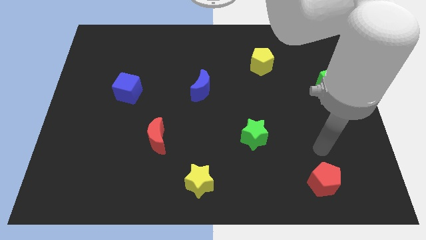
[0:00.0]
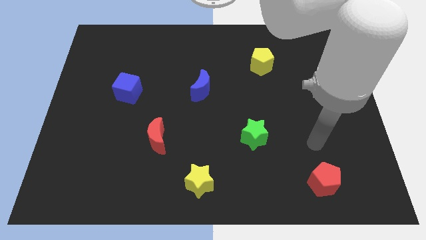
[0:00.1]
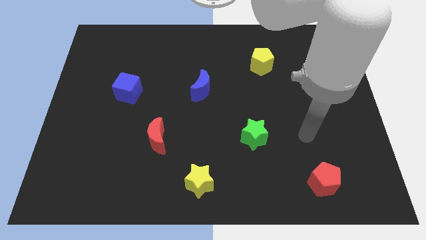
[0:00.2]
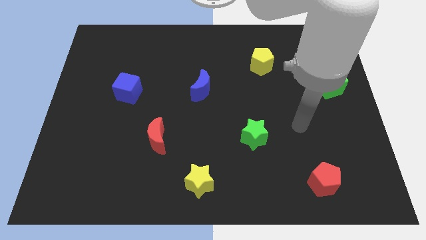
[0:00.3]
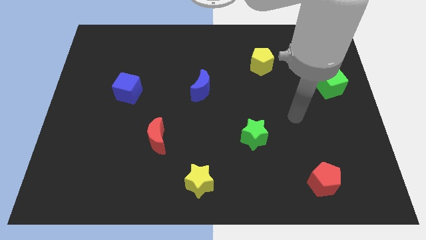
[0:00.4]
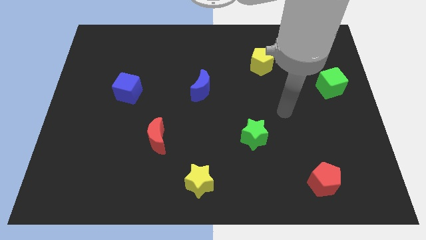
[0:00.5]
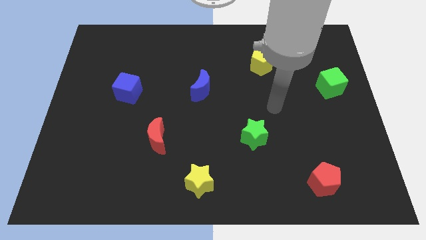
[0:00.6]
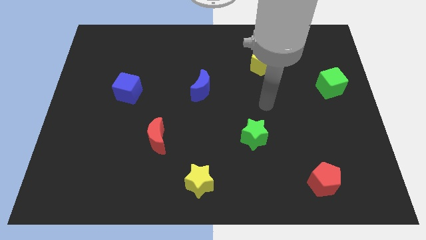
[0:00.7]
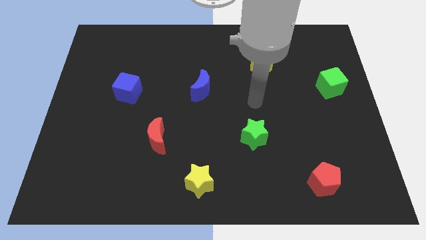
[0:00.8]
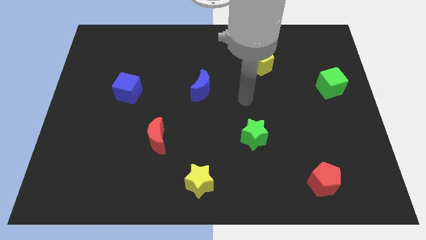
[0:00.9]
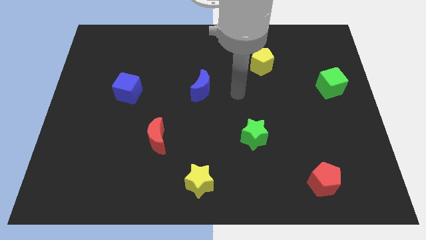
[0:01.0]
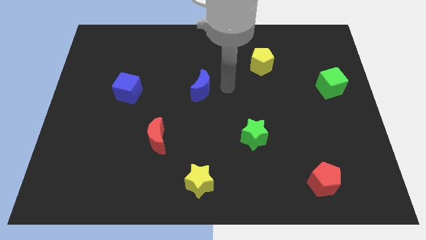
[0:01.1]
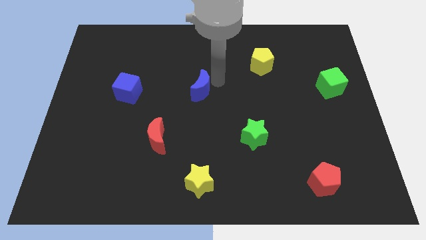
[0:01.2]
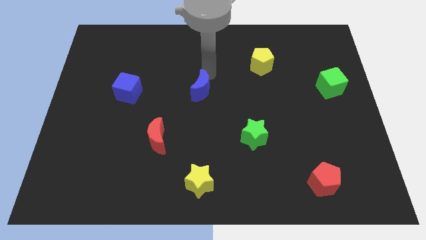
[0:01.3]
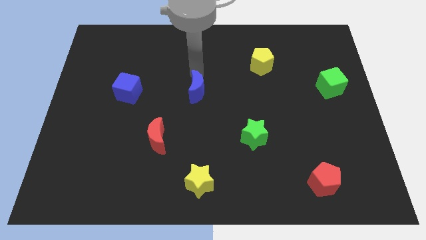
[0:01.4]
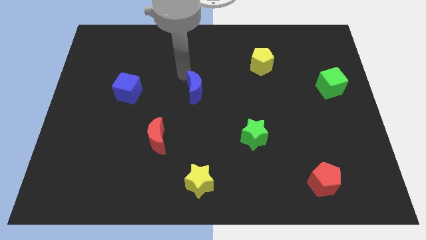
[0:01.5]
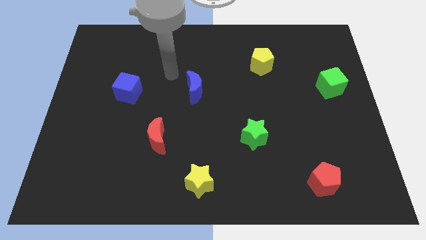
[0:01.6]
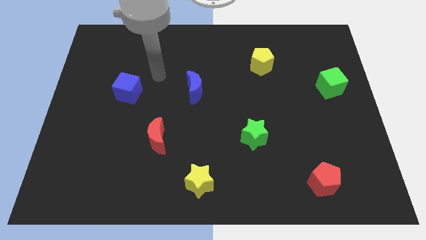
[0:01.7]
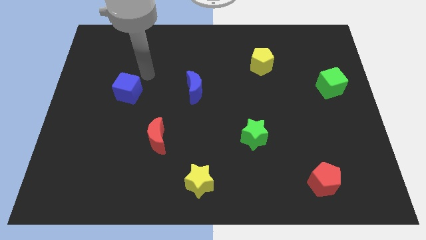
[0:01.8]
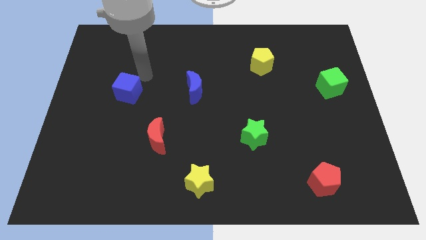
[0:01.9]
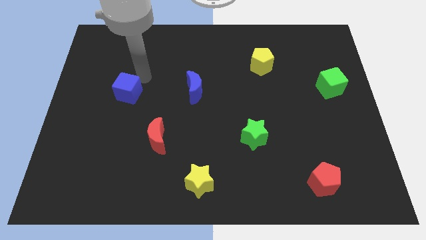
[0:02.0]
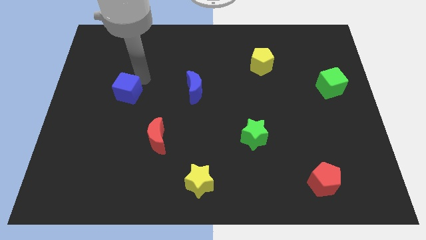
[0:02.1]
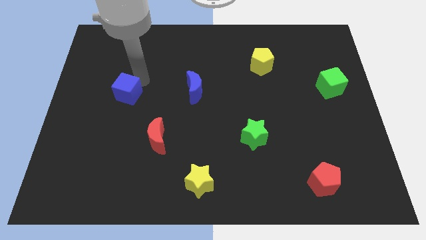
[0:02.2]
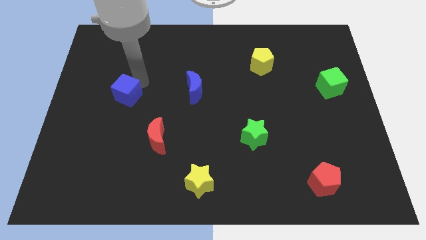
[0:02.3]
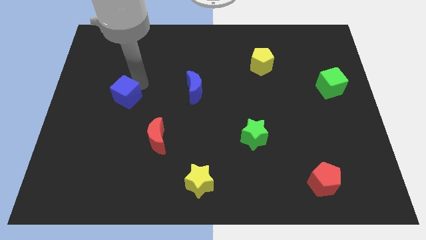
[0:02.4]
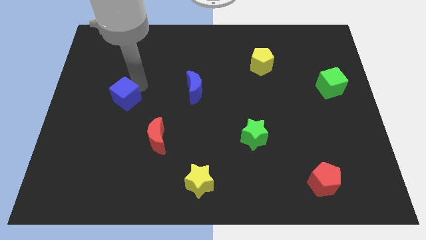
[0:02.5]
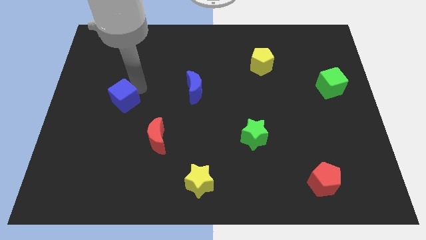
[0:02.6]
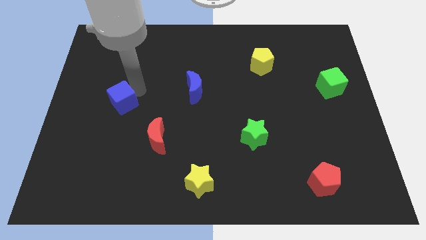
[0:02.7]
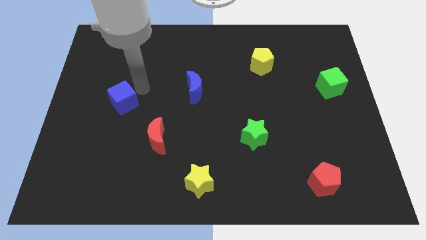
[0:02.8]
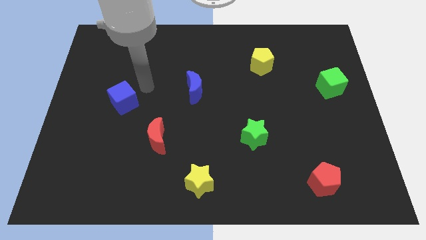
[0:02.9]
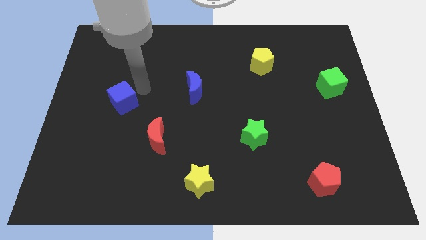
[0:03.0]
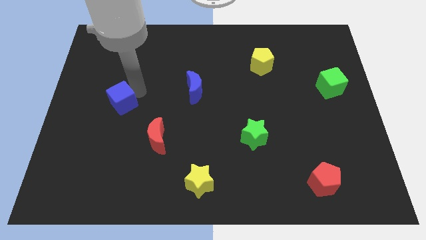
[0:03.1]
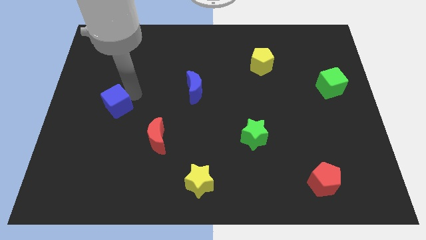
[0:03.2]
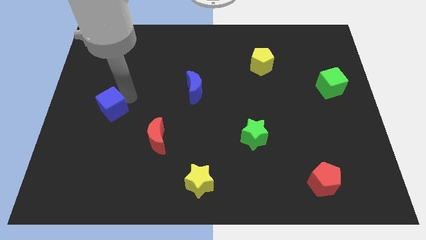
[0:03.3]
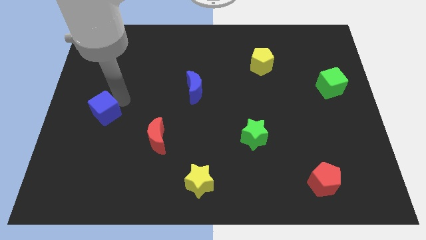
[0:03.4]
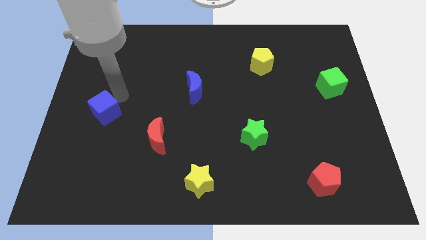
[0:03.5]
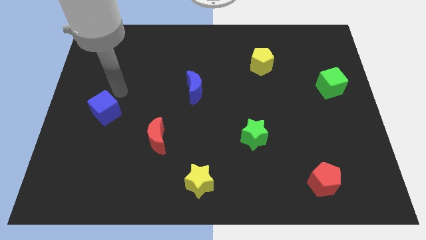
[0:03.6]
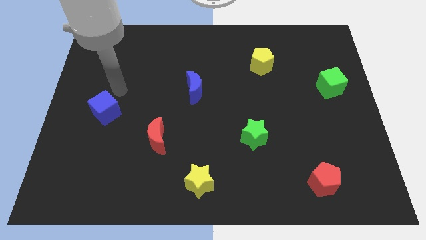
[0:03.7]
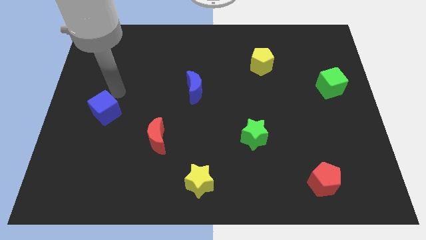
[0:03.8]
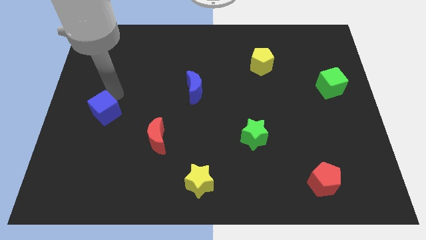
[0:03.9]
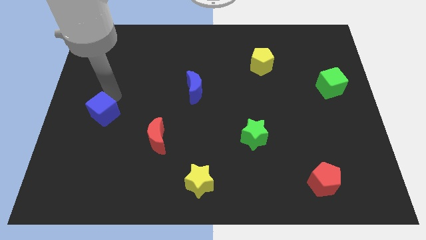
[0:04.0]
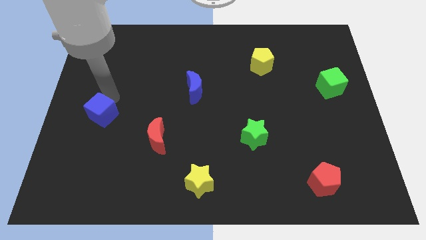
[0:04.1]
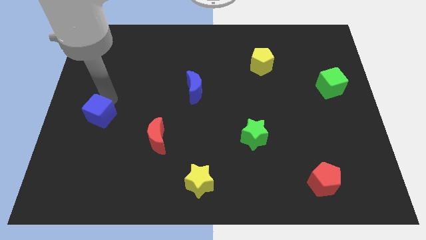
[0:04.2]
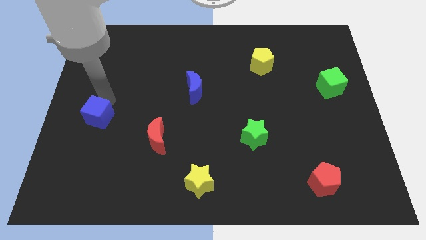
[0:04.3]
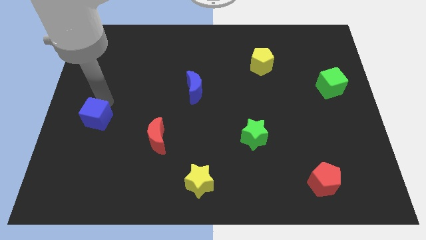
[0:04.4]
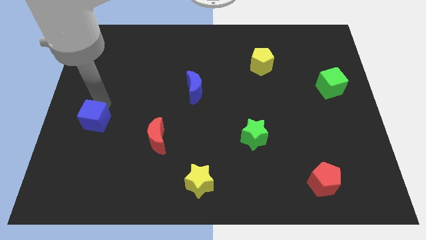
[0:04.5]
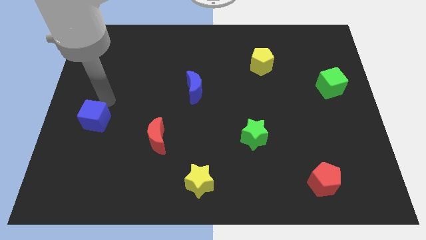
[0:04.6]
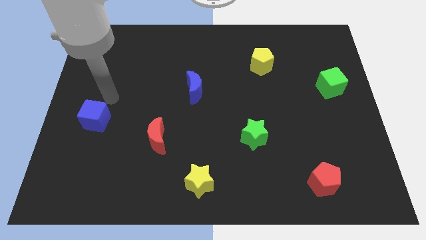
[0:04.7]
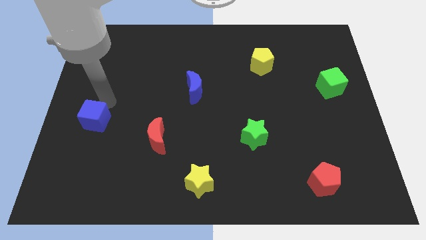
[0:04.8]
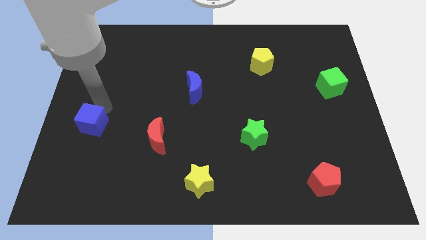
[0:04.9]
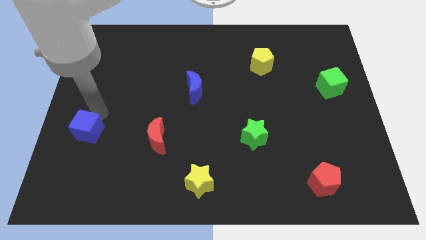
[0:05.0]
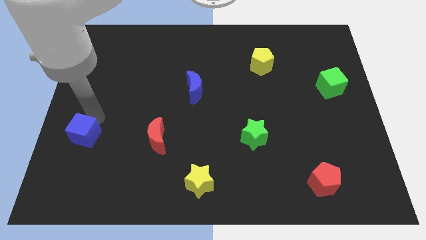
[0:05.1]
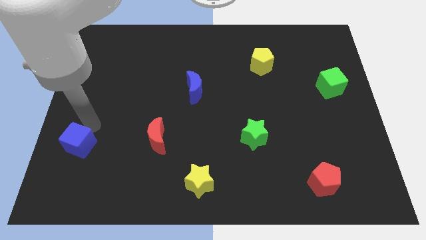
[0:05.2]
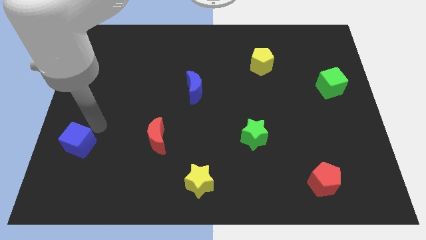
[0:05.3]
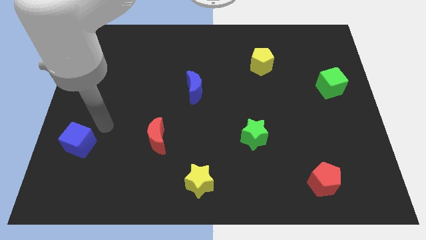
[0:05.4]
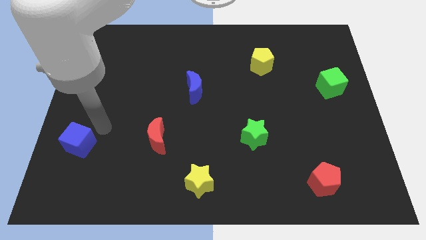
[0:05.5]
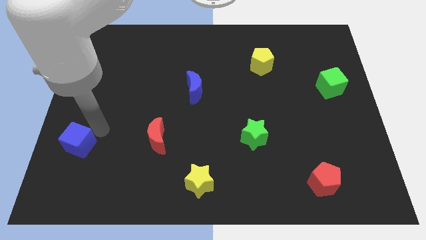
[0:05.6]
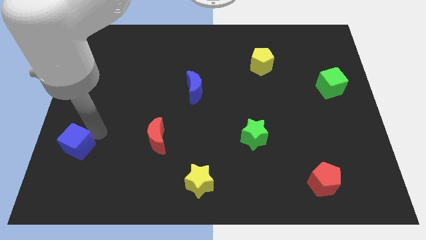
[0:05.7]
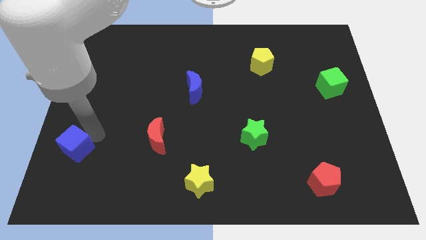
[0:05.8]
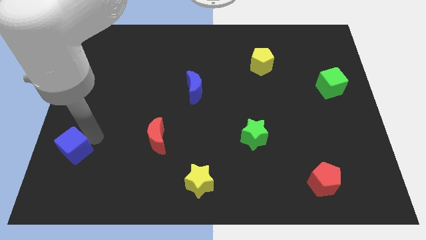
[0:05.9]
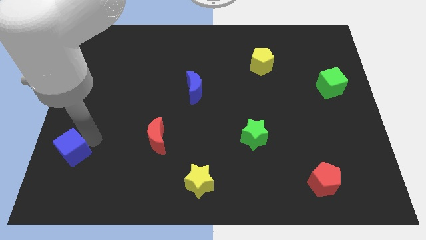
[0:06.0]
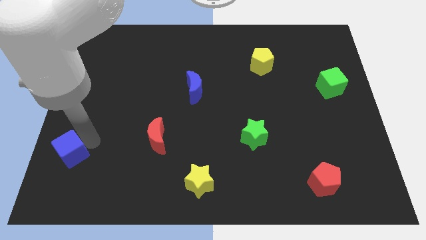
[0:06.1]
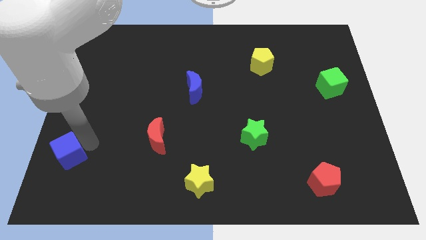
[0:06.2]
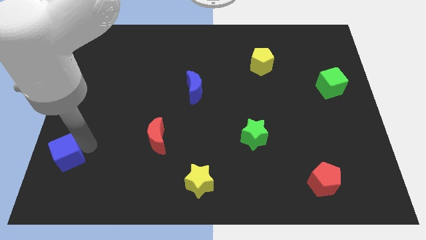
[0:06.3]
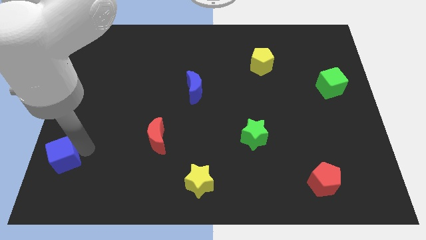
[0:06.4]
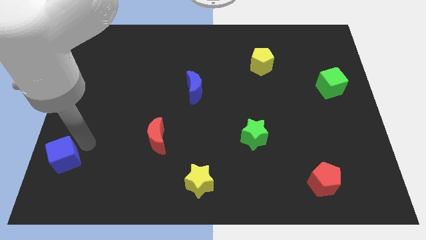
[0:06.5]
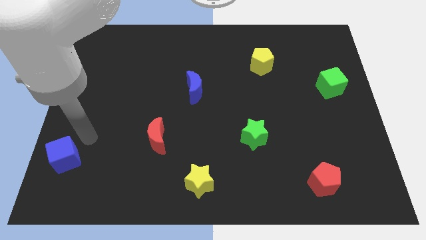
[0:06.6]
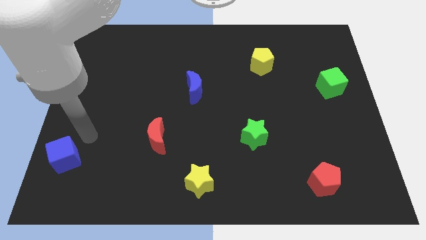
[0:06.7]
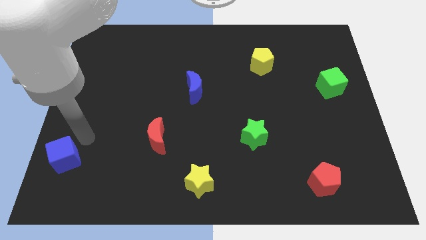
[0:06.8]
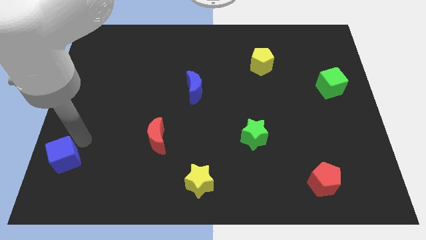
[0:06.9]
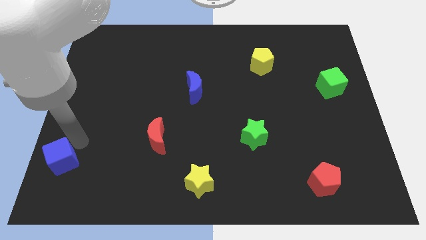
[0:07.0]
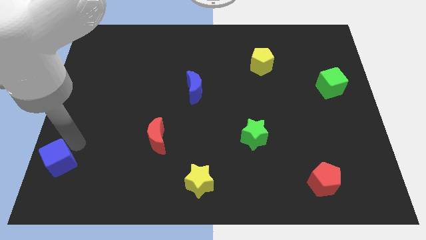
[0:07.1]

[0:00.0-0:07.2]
push the blue cube to the bottom left corner
